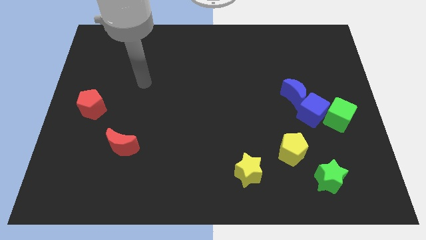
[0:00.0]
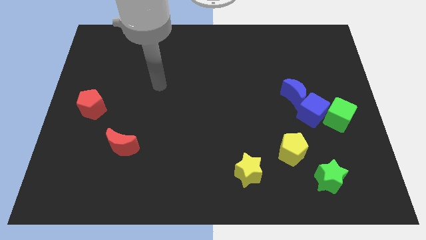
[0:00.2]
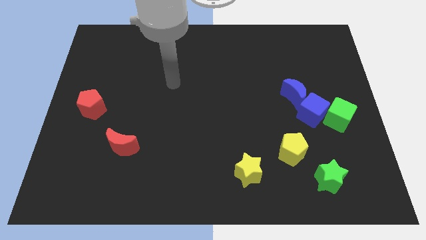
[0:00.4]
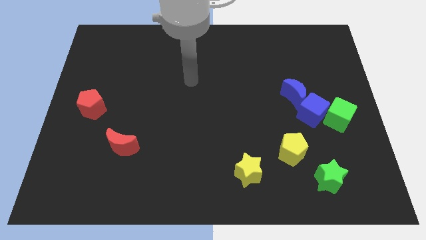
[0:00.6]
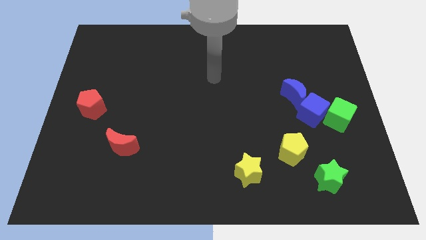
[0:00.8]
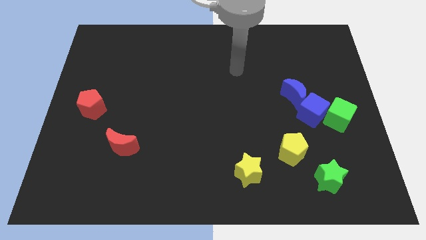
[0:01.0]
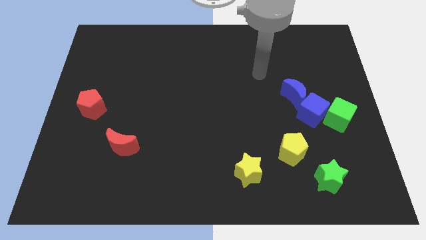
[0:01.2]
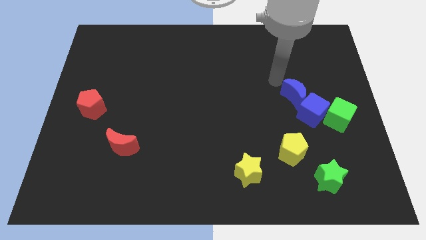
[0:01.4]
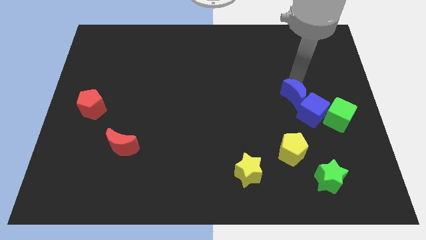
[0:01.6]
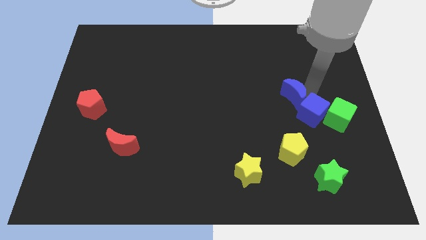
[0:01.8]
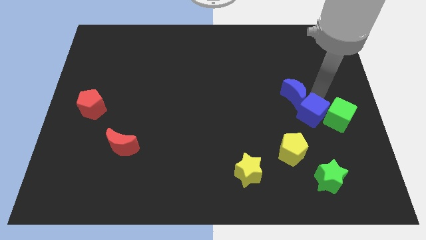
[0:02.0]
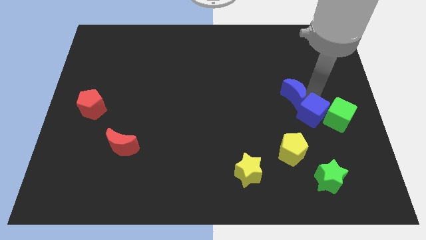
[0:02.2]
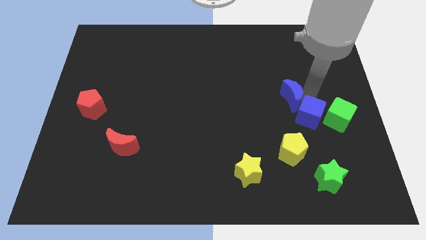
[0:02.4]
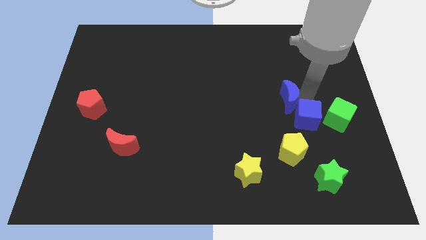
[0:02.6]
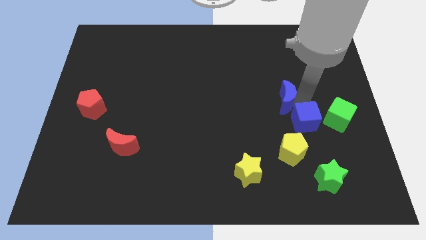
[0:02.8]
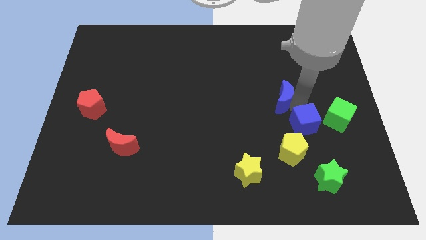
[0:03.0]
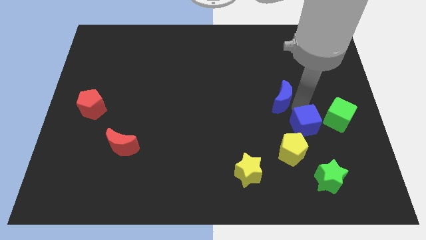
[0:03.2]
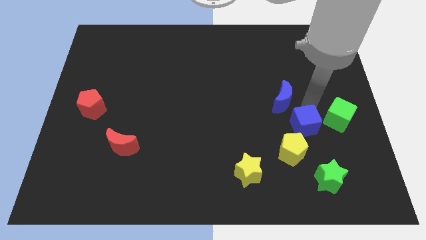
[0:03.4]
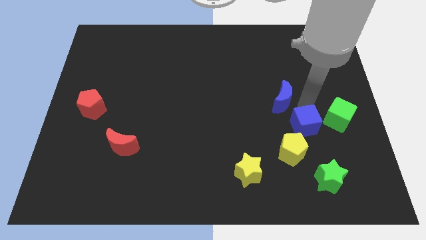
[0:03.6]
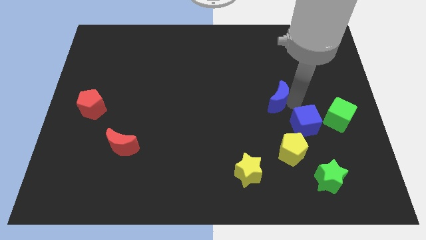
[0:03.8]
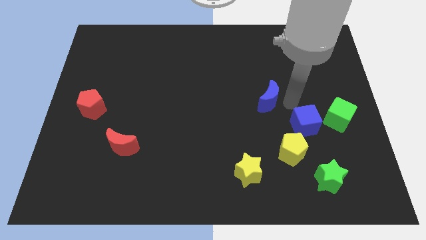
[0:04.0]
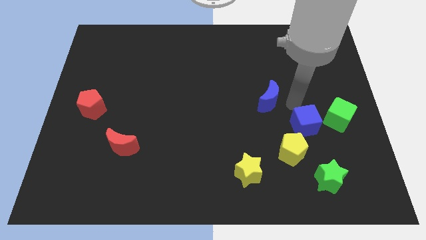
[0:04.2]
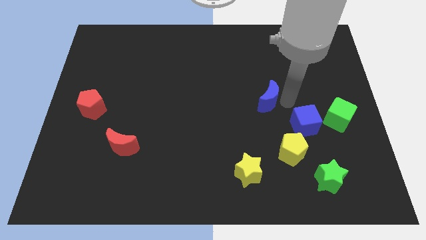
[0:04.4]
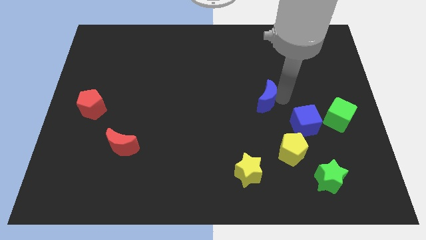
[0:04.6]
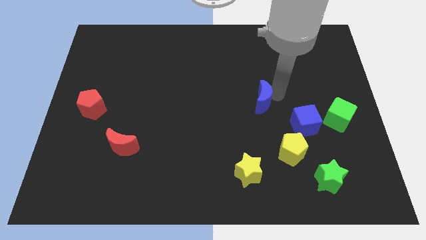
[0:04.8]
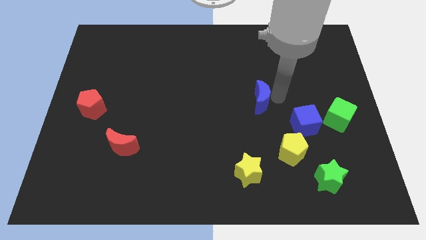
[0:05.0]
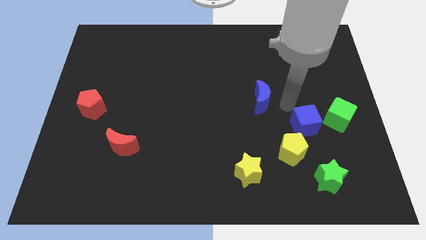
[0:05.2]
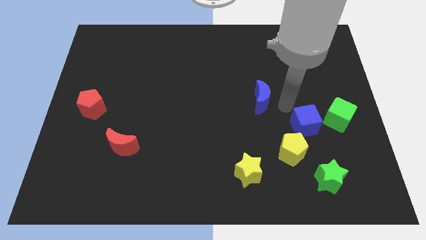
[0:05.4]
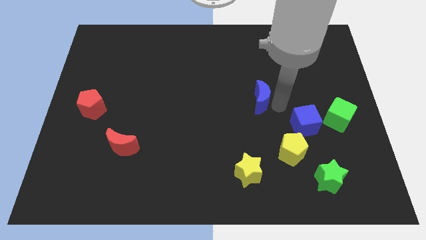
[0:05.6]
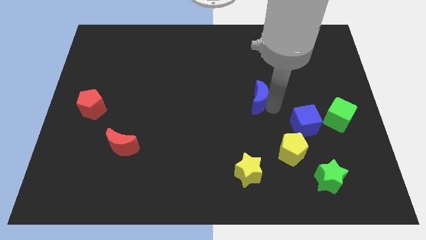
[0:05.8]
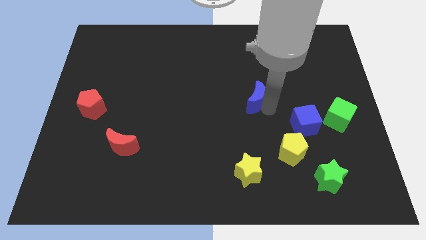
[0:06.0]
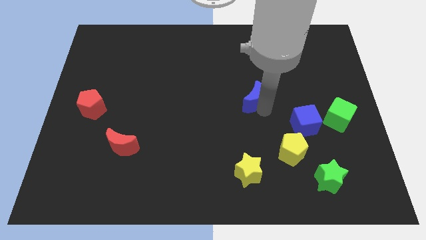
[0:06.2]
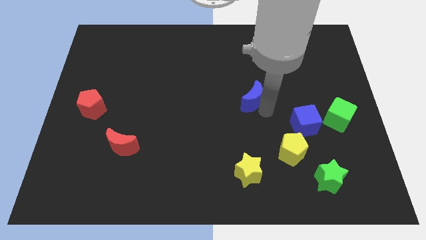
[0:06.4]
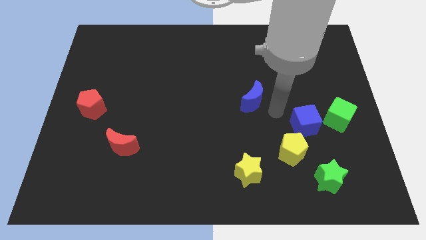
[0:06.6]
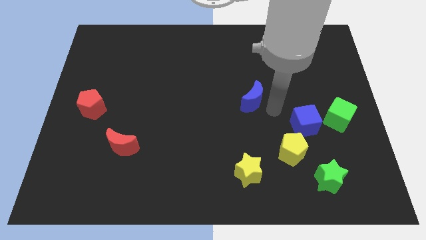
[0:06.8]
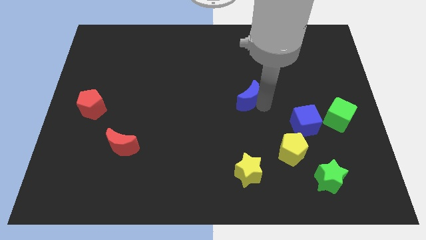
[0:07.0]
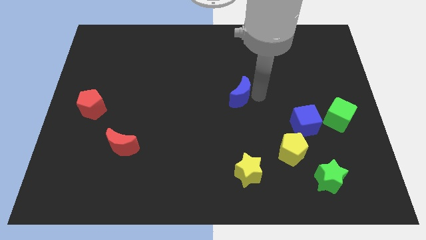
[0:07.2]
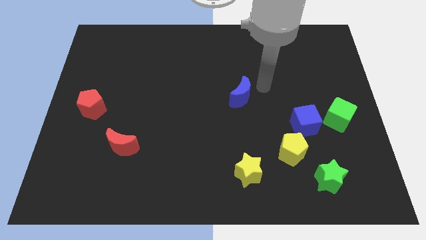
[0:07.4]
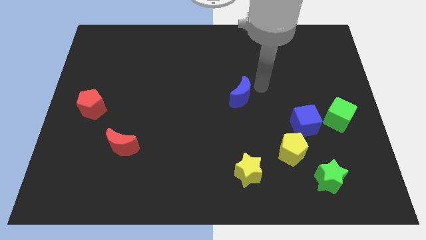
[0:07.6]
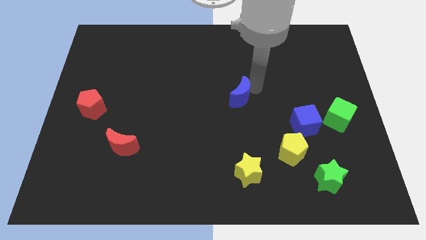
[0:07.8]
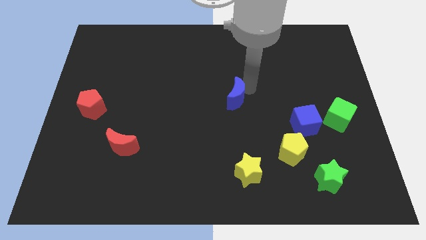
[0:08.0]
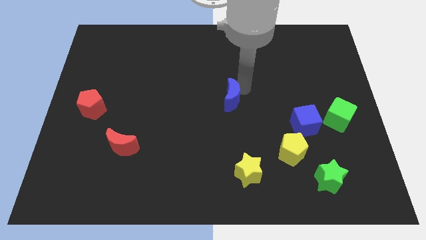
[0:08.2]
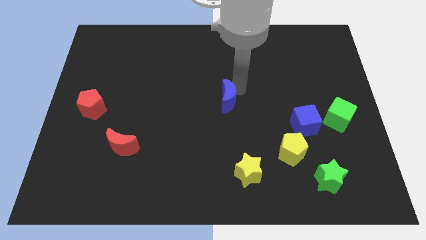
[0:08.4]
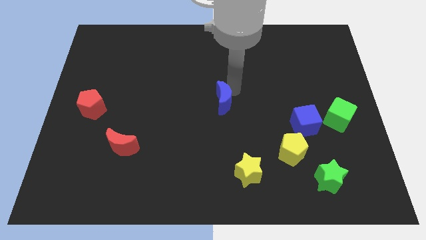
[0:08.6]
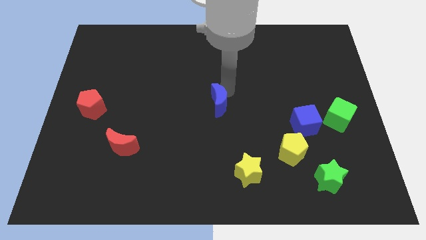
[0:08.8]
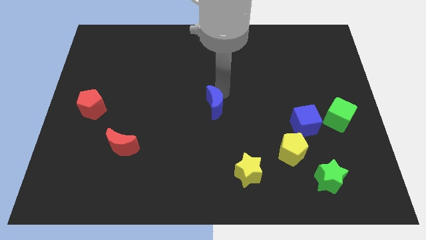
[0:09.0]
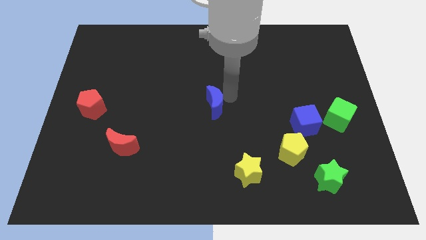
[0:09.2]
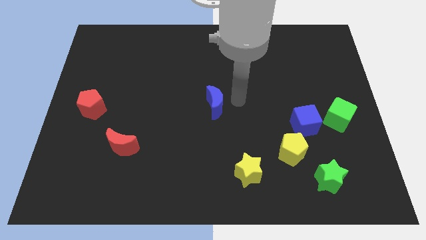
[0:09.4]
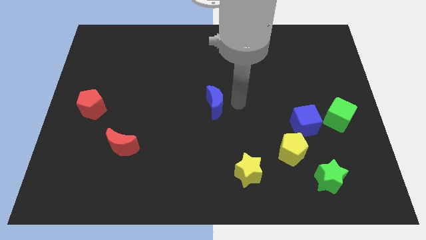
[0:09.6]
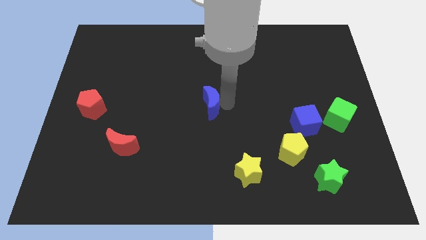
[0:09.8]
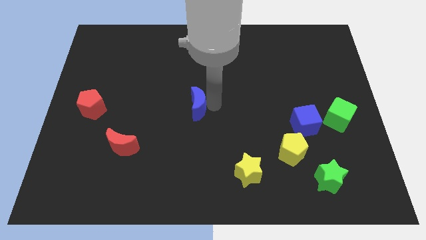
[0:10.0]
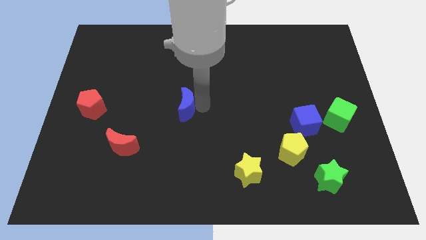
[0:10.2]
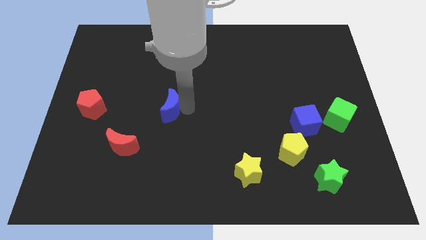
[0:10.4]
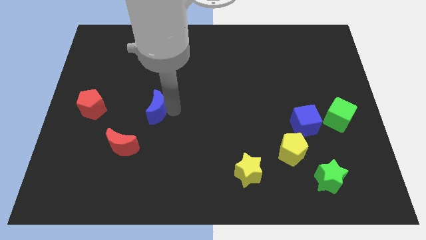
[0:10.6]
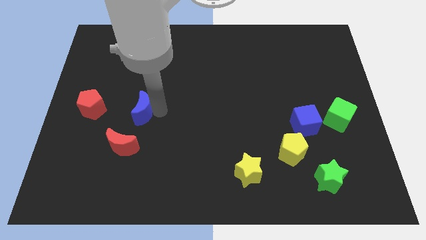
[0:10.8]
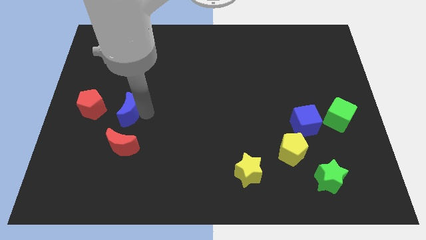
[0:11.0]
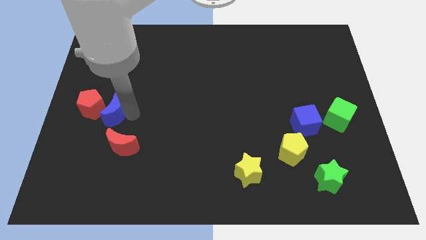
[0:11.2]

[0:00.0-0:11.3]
push the blue moon towards the red pentagon

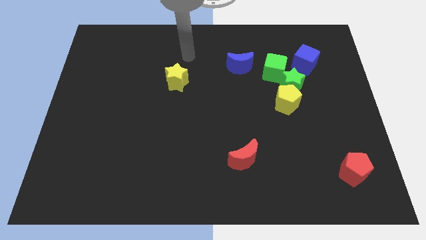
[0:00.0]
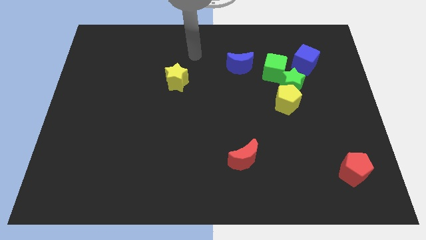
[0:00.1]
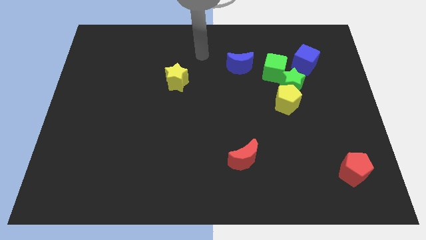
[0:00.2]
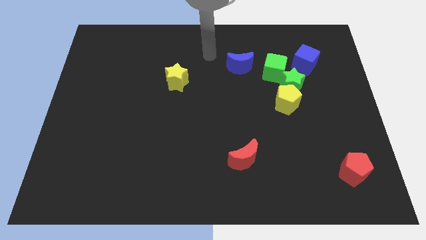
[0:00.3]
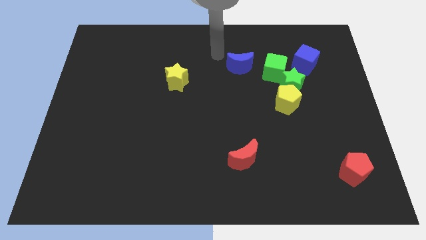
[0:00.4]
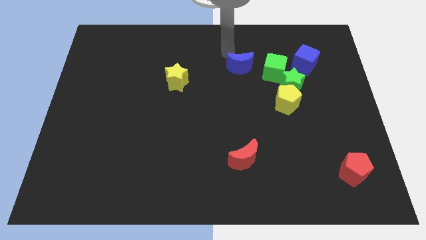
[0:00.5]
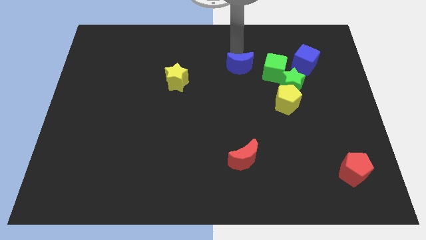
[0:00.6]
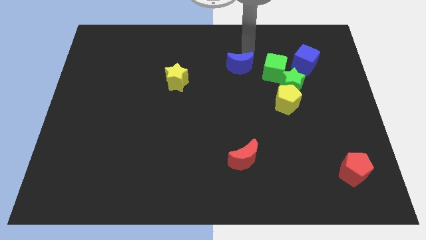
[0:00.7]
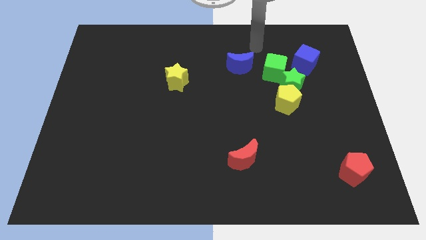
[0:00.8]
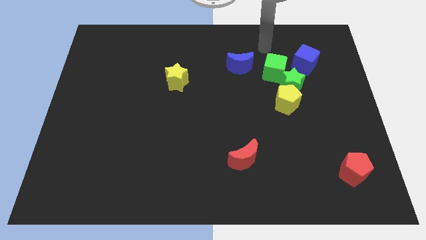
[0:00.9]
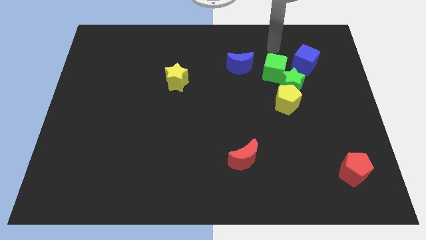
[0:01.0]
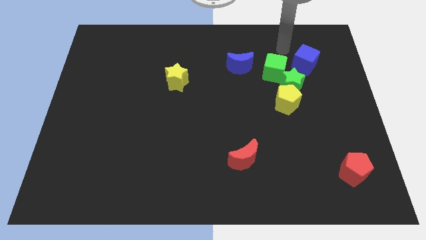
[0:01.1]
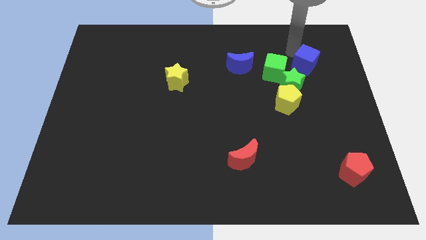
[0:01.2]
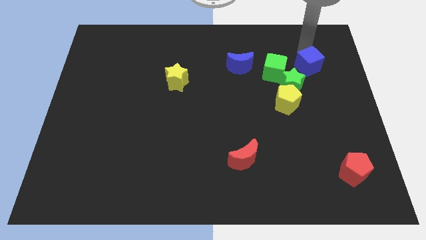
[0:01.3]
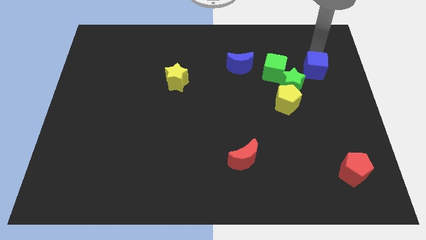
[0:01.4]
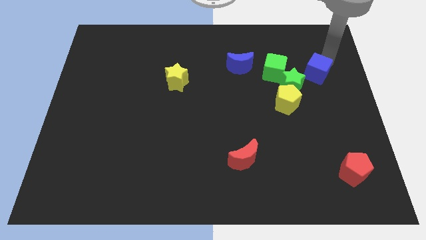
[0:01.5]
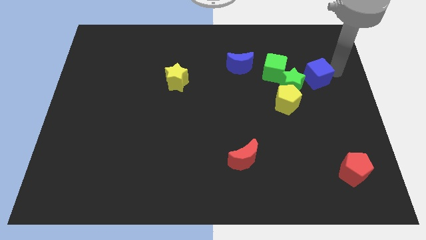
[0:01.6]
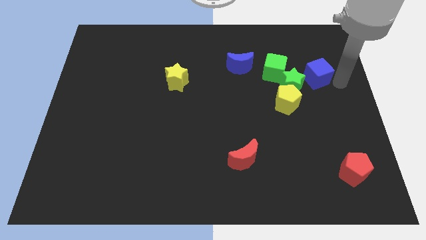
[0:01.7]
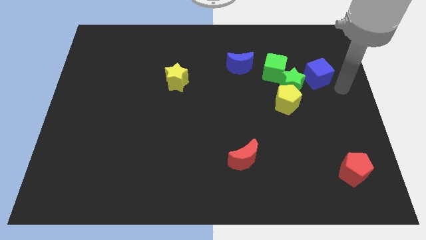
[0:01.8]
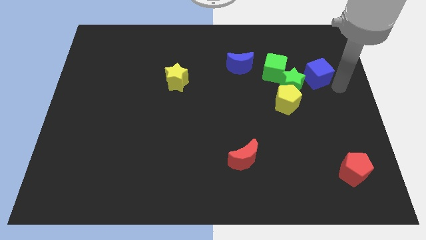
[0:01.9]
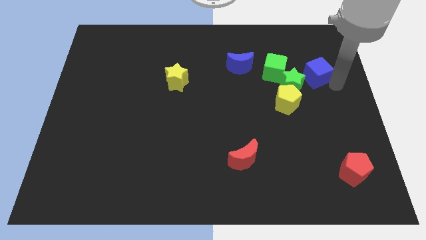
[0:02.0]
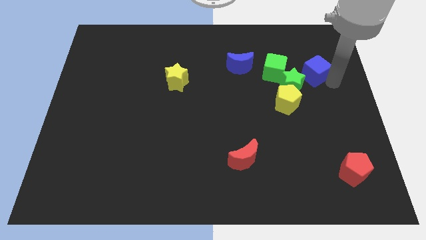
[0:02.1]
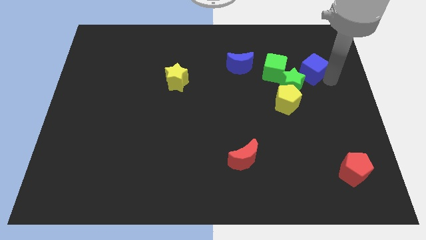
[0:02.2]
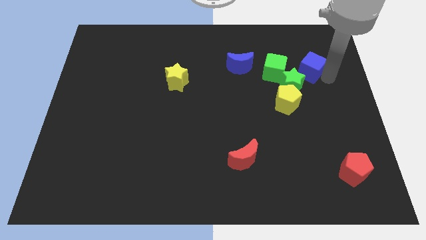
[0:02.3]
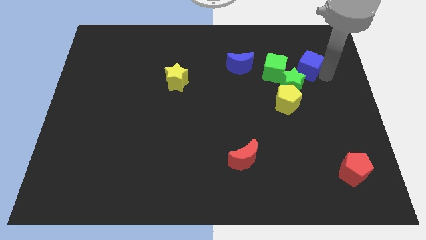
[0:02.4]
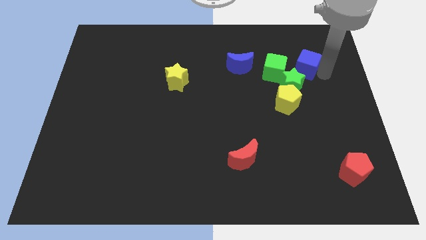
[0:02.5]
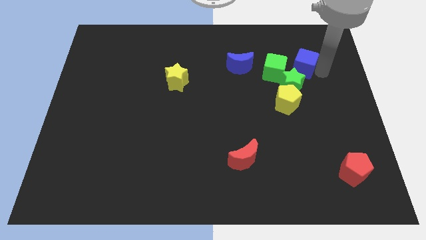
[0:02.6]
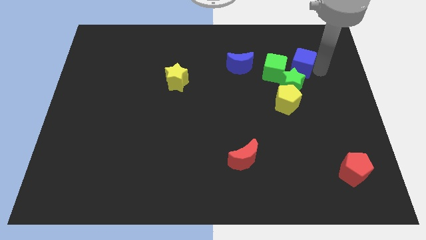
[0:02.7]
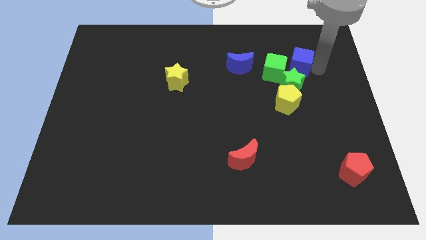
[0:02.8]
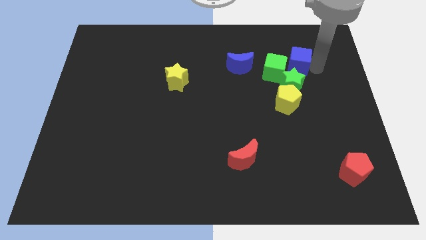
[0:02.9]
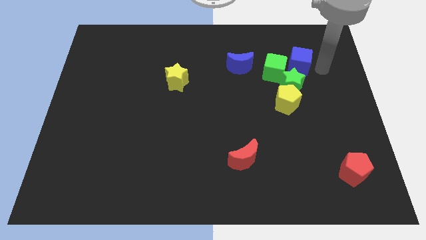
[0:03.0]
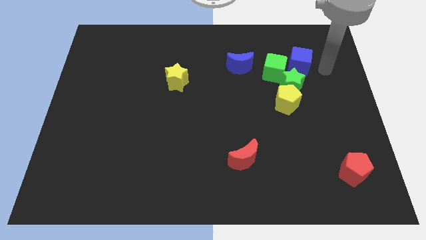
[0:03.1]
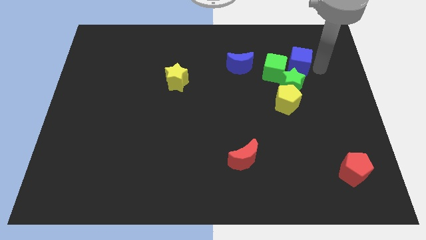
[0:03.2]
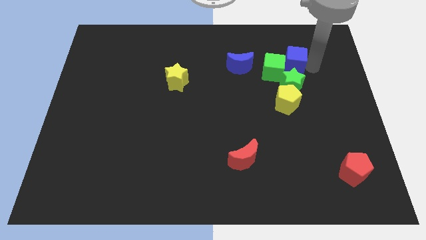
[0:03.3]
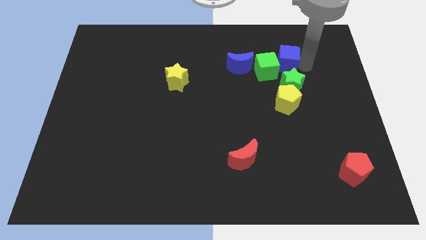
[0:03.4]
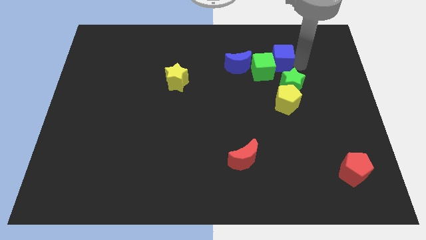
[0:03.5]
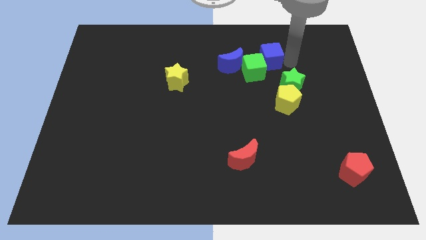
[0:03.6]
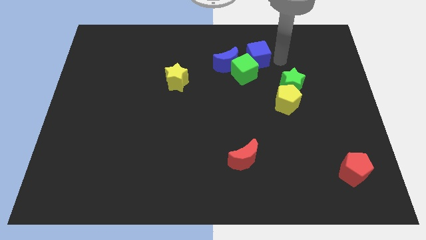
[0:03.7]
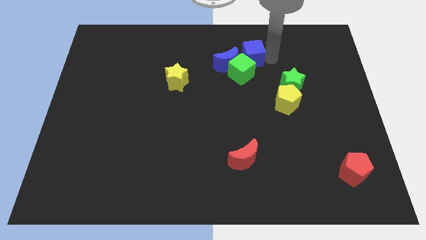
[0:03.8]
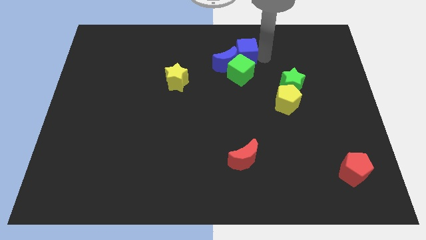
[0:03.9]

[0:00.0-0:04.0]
push the blue cube next to the blue moon
